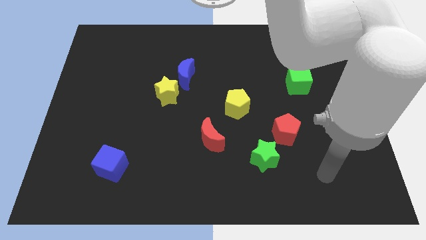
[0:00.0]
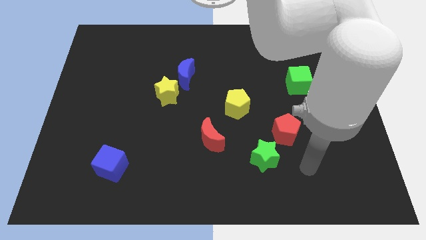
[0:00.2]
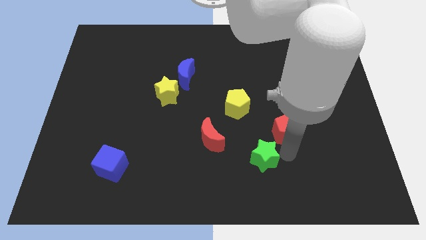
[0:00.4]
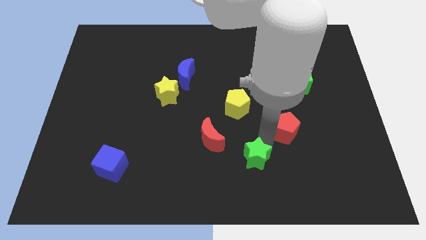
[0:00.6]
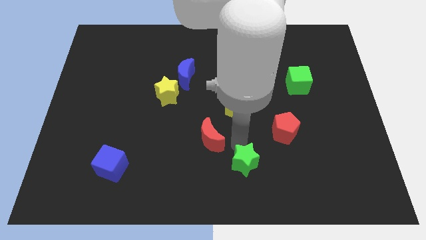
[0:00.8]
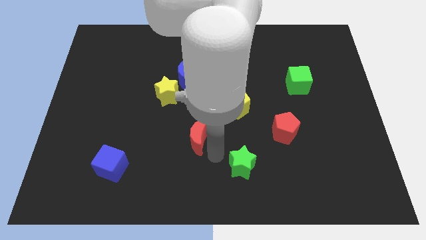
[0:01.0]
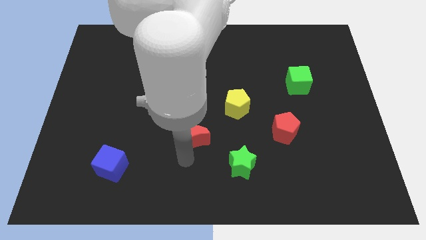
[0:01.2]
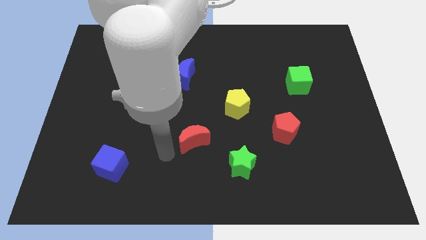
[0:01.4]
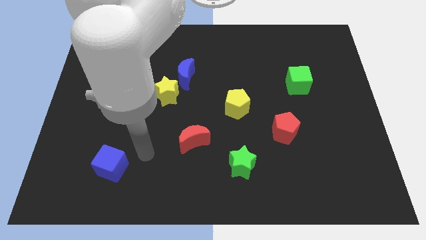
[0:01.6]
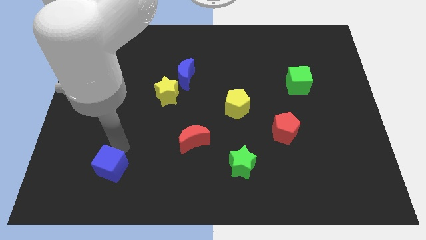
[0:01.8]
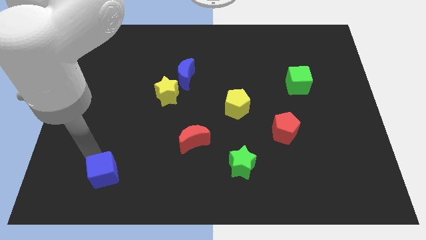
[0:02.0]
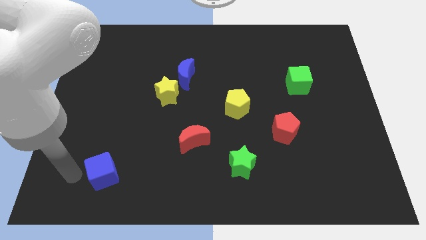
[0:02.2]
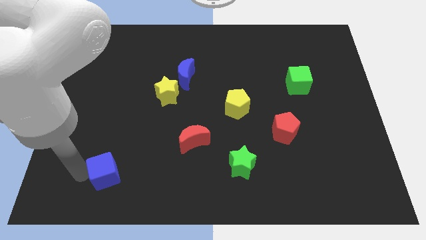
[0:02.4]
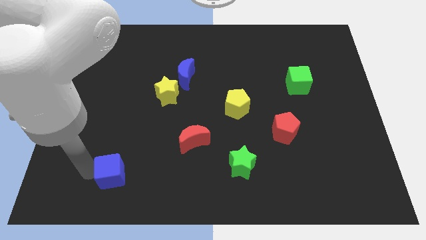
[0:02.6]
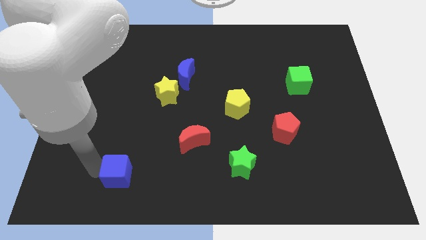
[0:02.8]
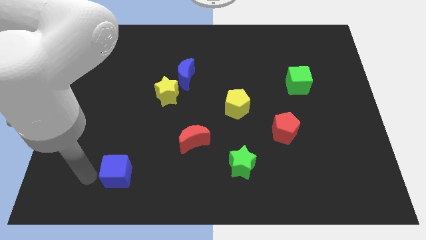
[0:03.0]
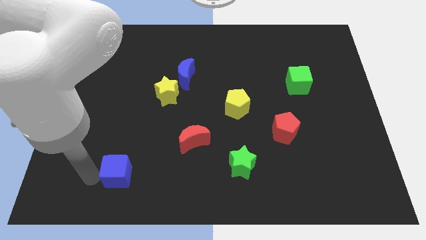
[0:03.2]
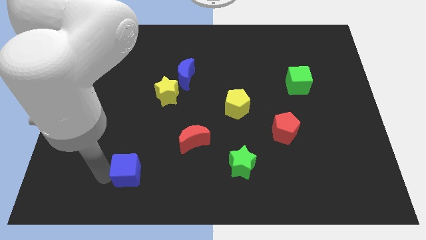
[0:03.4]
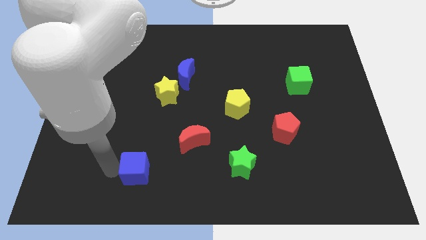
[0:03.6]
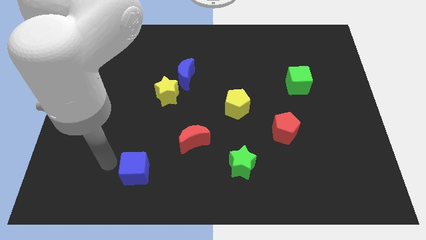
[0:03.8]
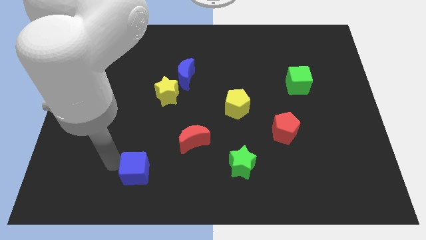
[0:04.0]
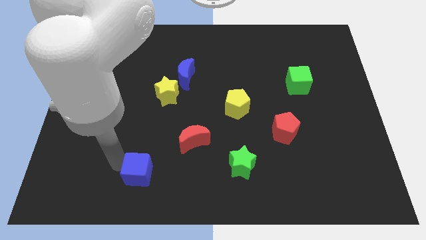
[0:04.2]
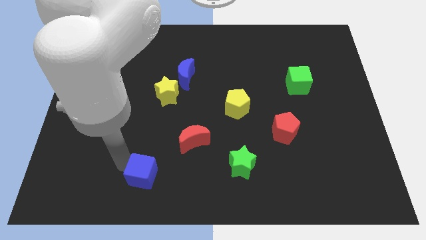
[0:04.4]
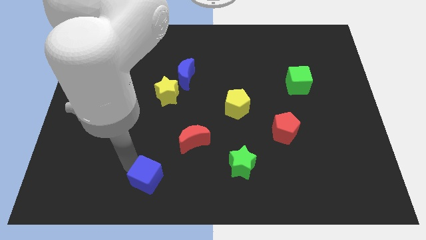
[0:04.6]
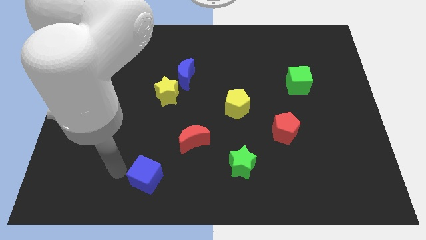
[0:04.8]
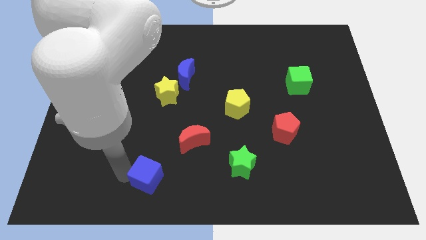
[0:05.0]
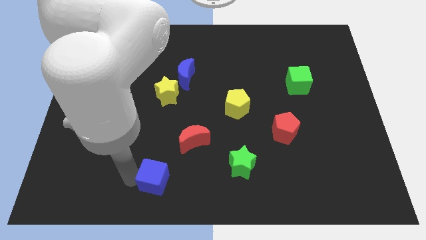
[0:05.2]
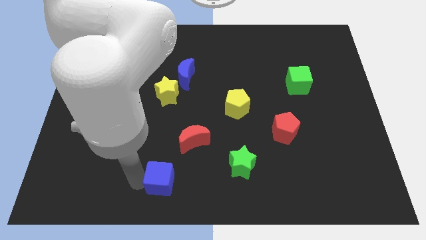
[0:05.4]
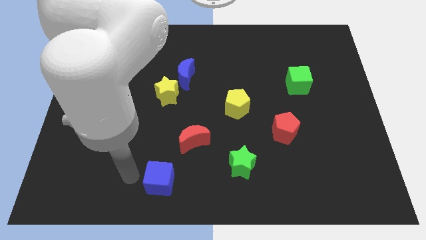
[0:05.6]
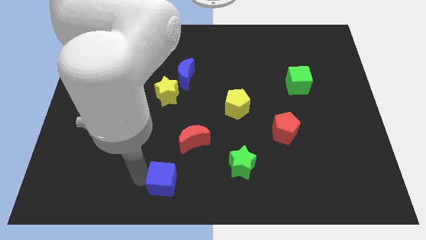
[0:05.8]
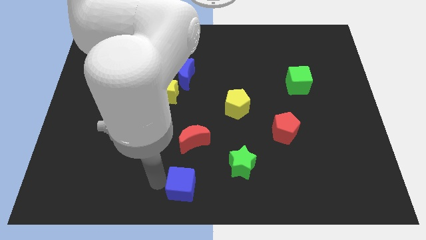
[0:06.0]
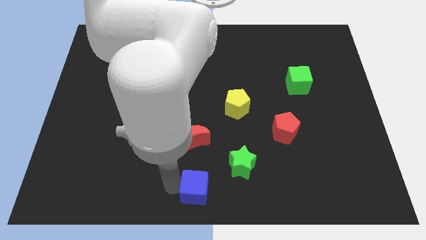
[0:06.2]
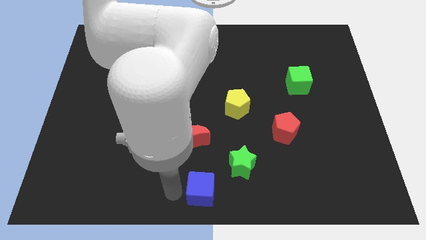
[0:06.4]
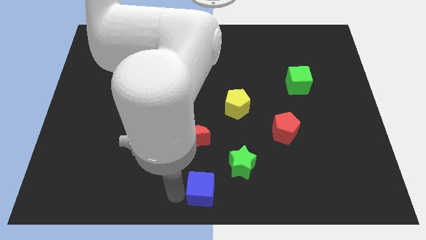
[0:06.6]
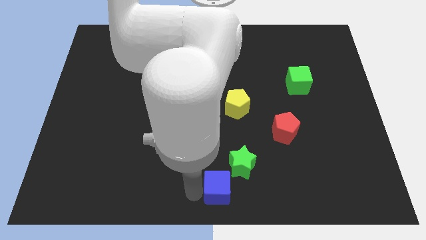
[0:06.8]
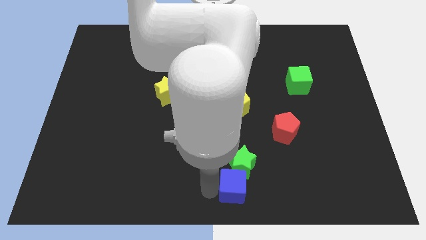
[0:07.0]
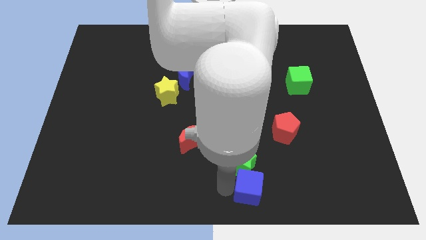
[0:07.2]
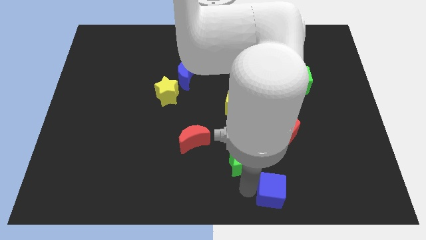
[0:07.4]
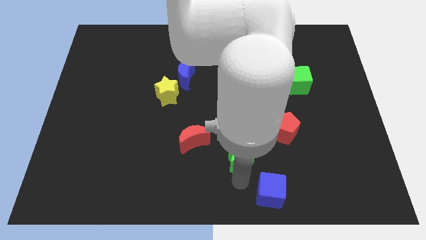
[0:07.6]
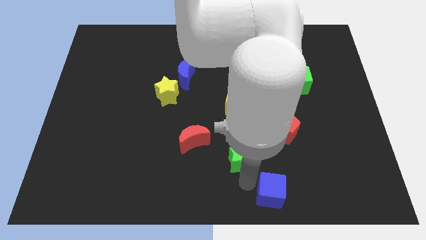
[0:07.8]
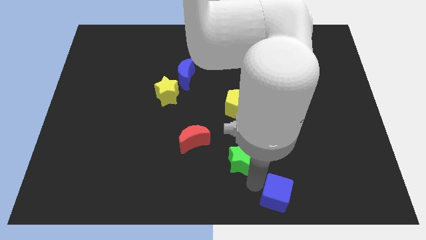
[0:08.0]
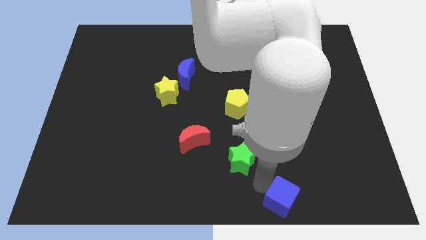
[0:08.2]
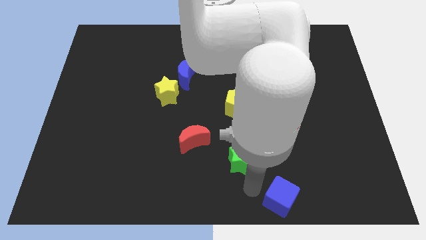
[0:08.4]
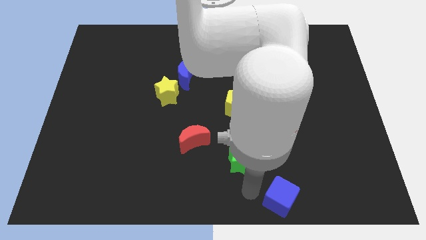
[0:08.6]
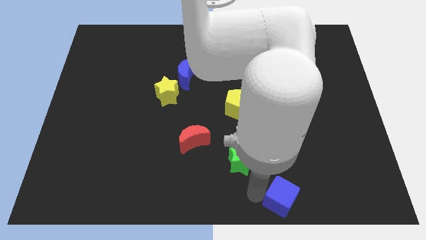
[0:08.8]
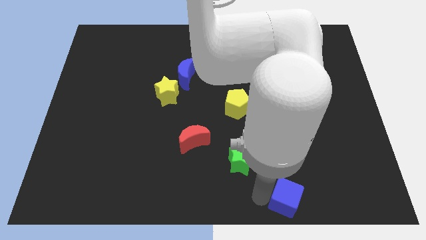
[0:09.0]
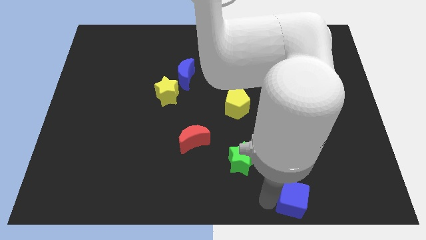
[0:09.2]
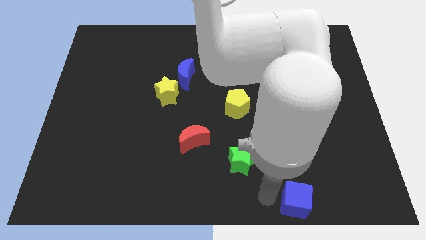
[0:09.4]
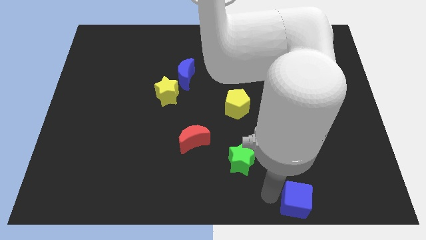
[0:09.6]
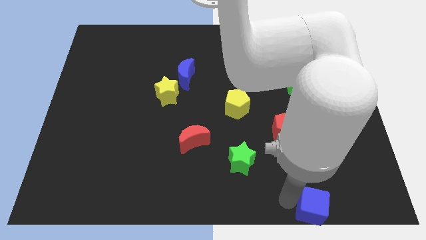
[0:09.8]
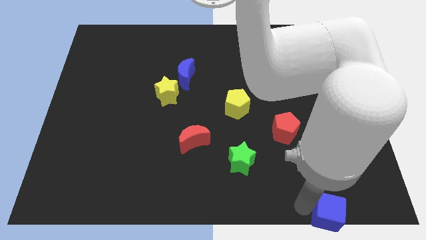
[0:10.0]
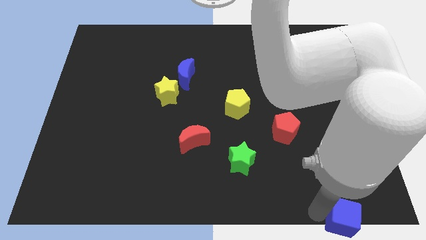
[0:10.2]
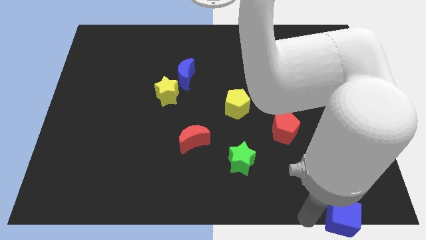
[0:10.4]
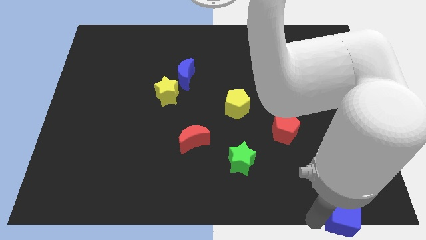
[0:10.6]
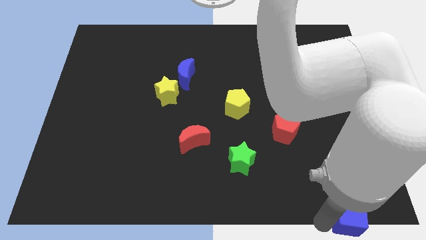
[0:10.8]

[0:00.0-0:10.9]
put the blue cube to the bottom right corner

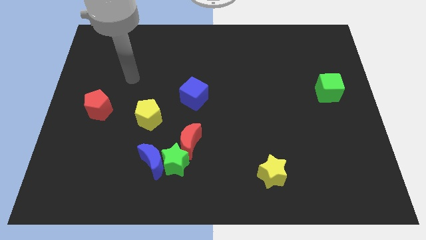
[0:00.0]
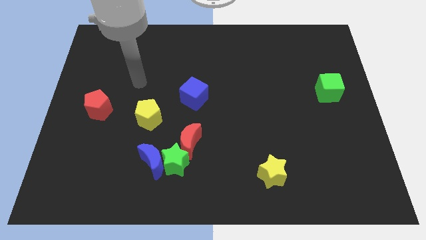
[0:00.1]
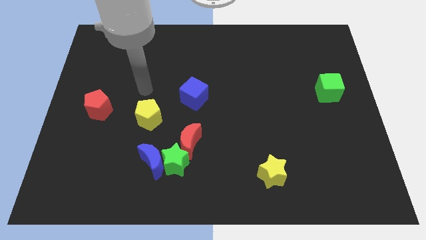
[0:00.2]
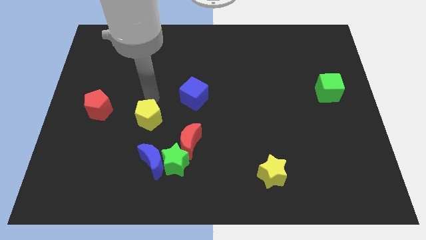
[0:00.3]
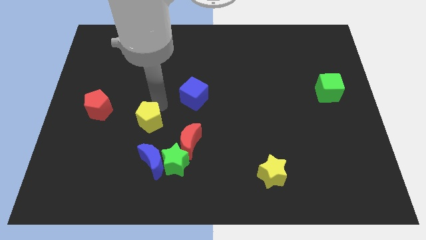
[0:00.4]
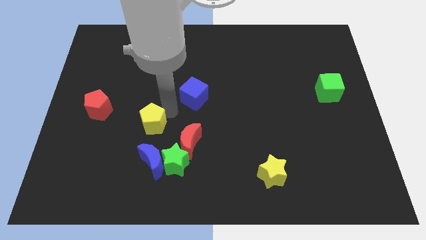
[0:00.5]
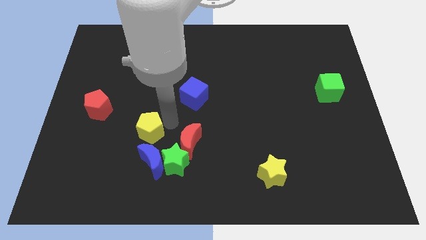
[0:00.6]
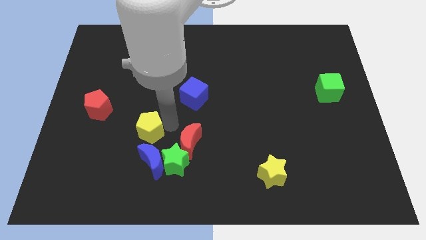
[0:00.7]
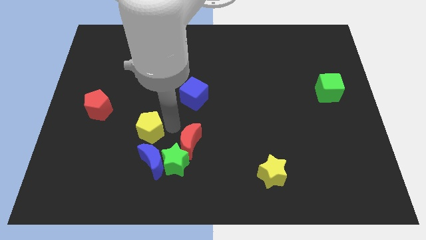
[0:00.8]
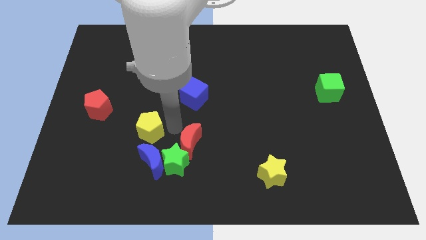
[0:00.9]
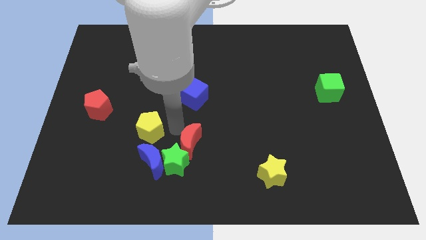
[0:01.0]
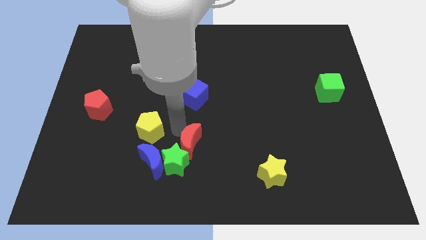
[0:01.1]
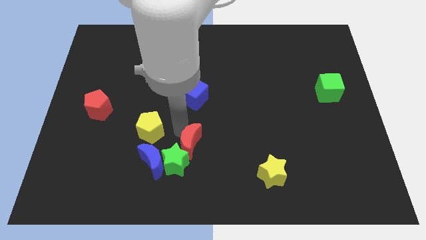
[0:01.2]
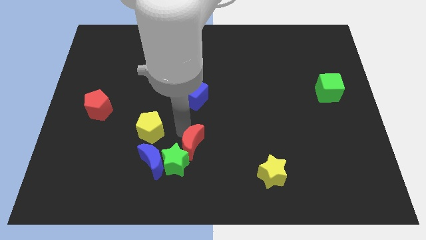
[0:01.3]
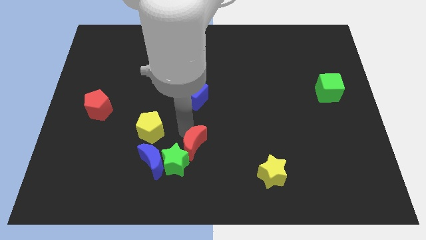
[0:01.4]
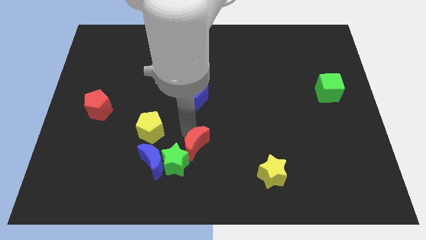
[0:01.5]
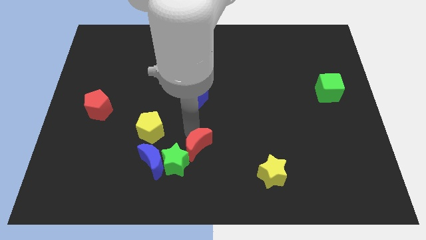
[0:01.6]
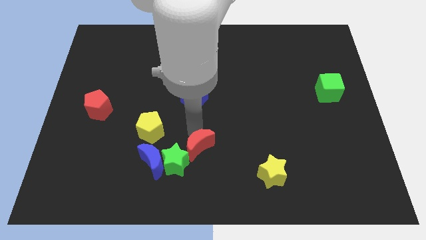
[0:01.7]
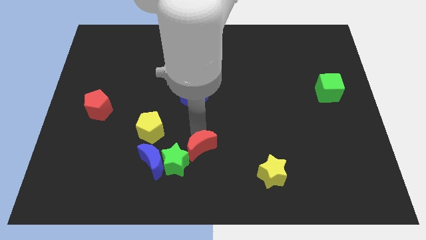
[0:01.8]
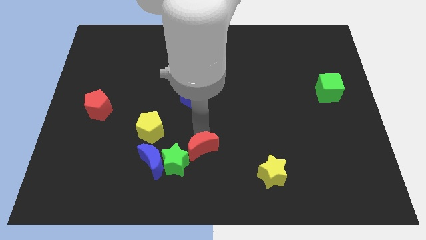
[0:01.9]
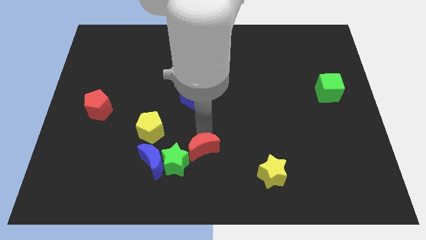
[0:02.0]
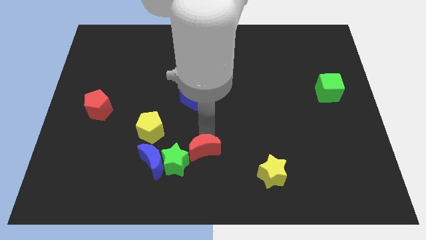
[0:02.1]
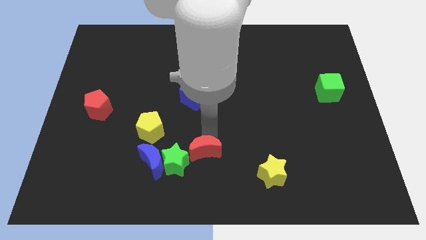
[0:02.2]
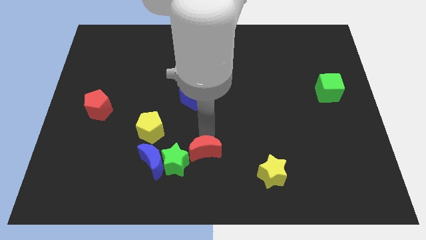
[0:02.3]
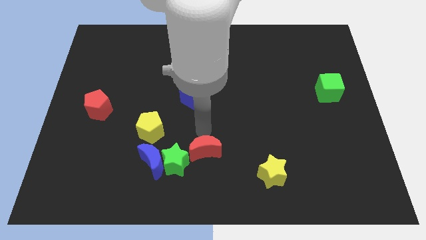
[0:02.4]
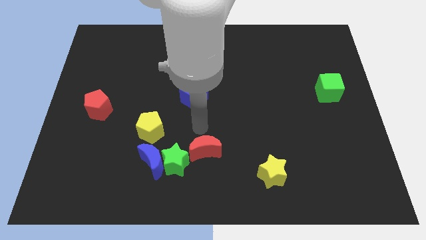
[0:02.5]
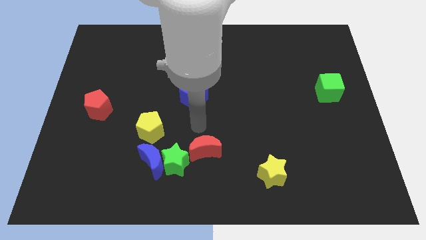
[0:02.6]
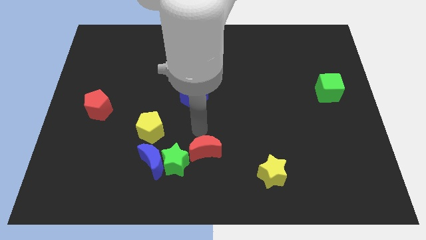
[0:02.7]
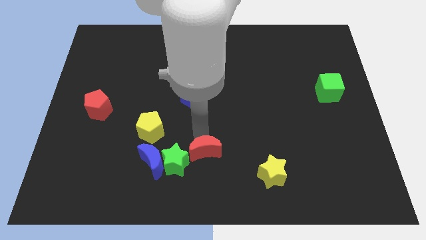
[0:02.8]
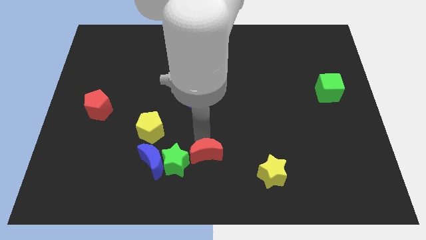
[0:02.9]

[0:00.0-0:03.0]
push the red moon to the bottom side

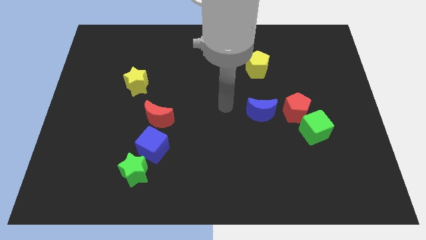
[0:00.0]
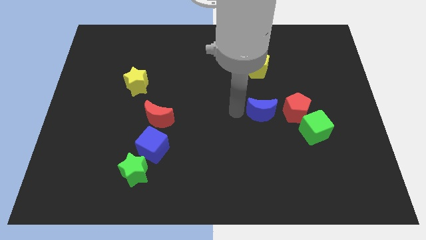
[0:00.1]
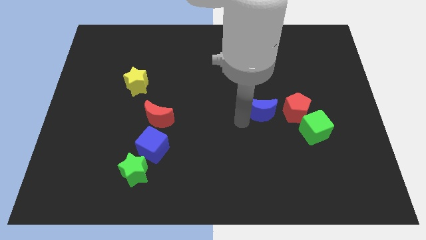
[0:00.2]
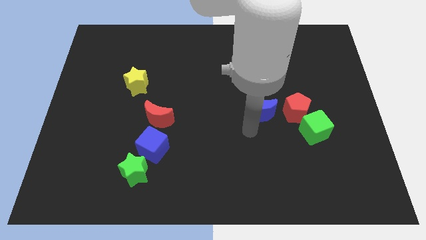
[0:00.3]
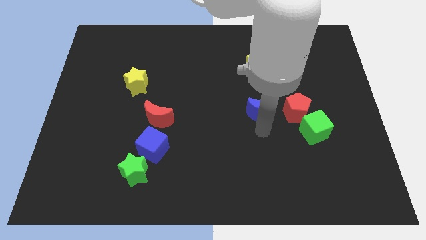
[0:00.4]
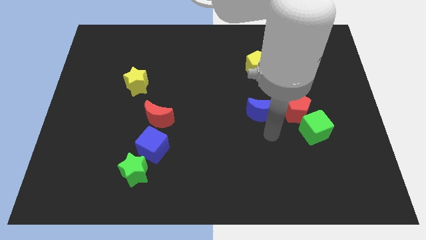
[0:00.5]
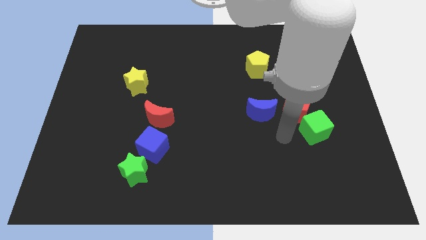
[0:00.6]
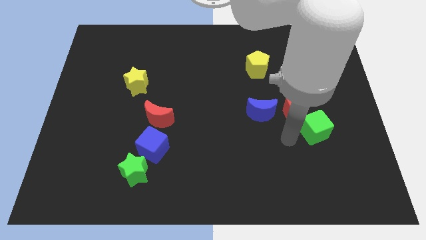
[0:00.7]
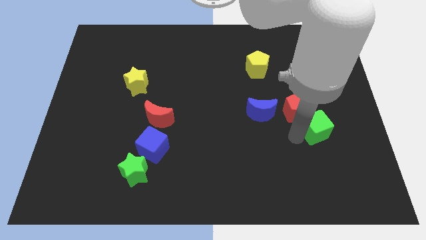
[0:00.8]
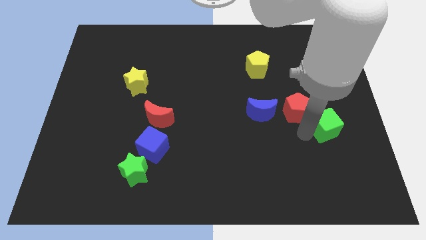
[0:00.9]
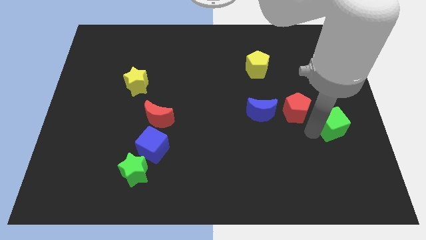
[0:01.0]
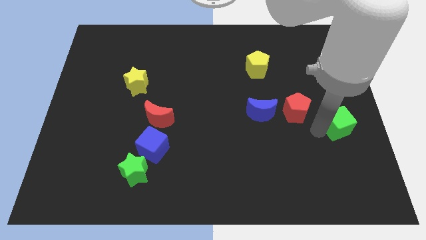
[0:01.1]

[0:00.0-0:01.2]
slide the green cube to the right side
